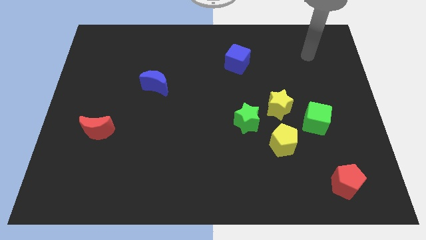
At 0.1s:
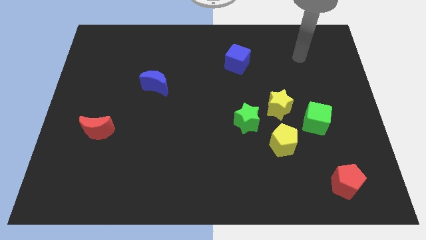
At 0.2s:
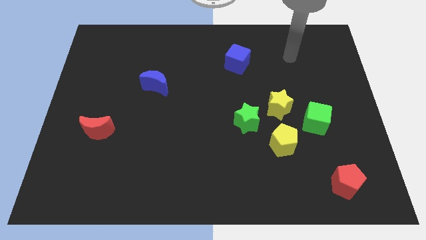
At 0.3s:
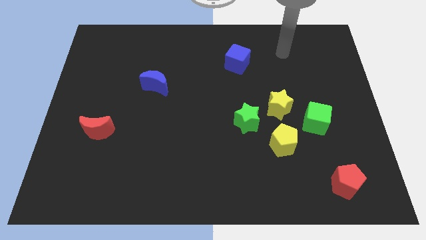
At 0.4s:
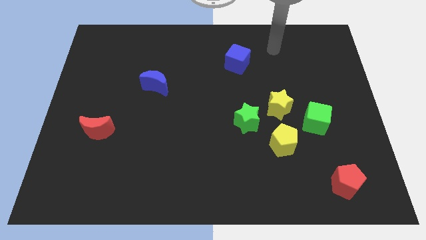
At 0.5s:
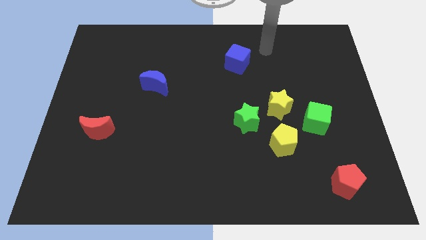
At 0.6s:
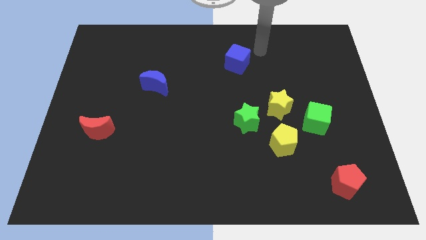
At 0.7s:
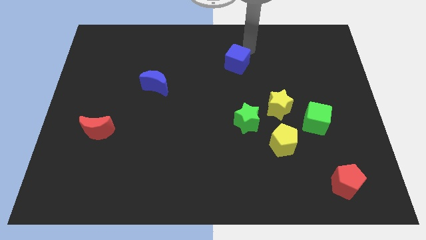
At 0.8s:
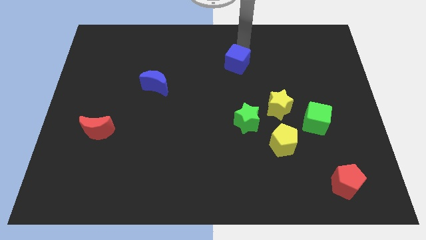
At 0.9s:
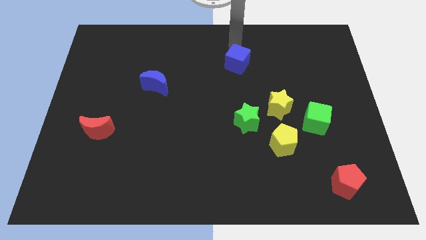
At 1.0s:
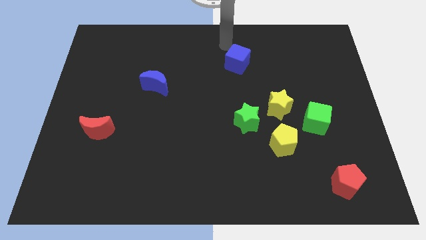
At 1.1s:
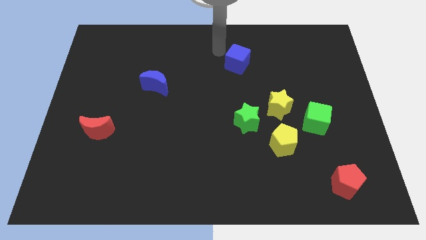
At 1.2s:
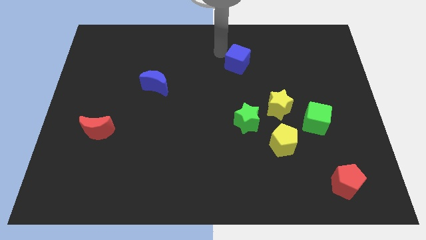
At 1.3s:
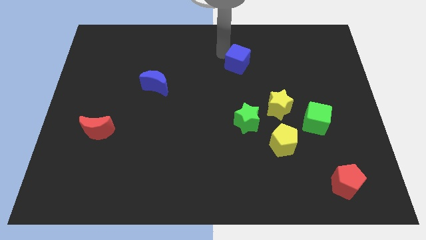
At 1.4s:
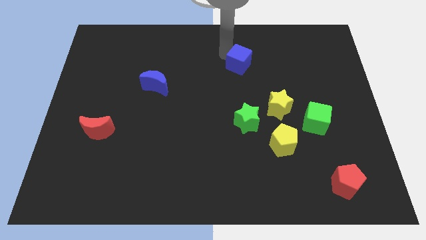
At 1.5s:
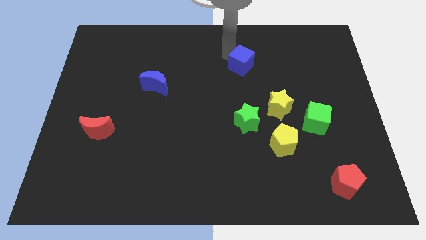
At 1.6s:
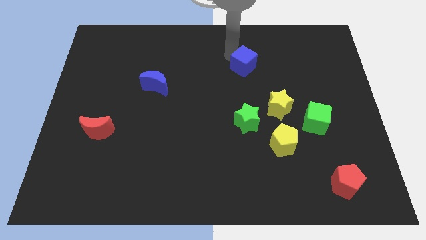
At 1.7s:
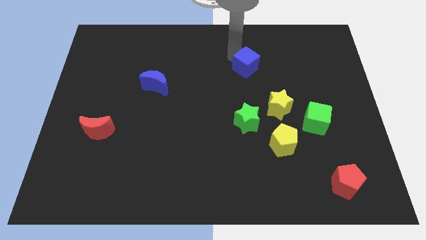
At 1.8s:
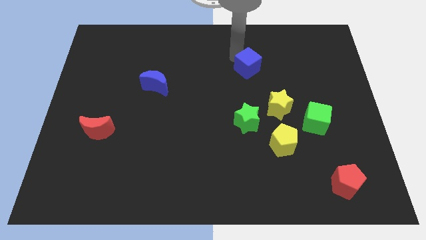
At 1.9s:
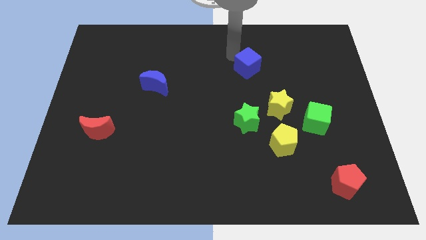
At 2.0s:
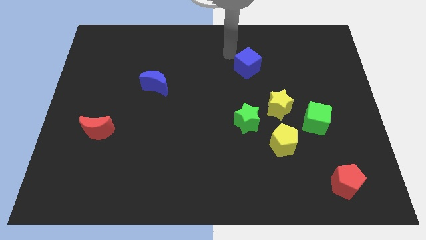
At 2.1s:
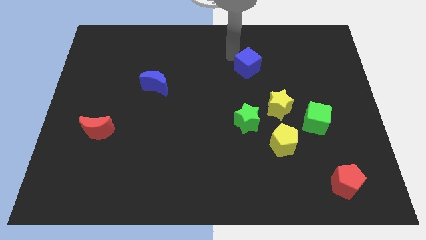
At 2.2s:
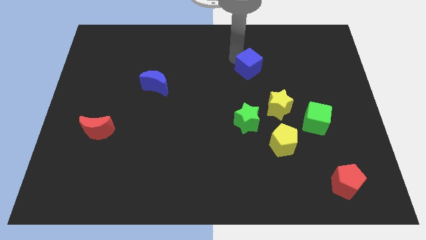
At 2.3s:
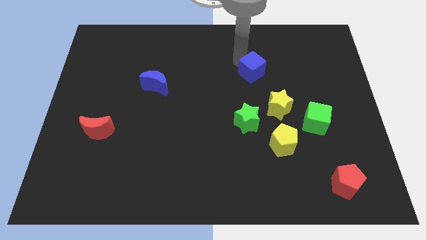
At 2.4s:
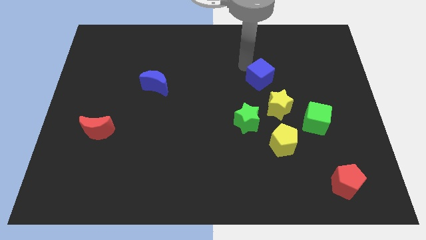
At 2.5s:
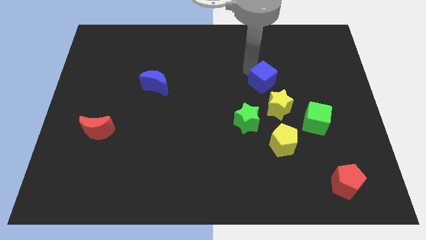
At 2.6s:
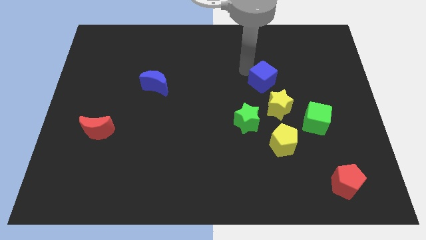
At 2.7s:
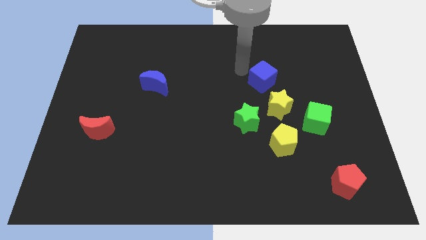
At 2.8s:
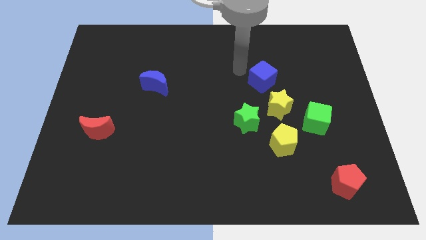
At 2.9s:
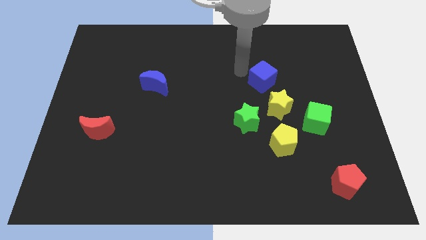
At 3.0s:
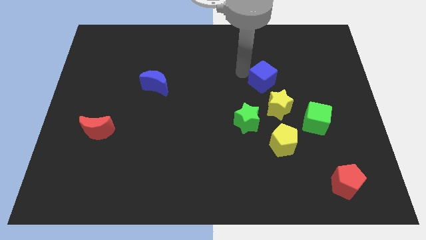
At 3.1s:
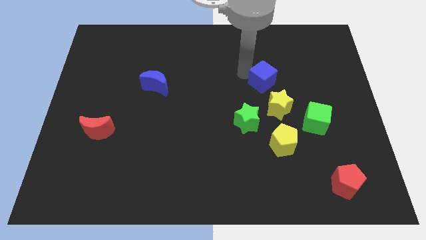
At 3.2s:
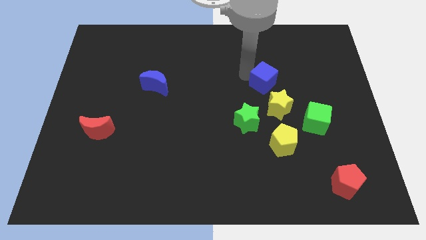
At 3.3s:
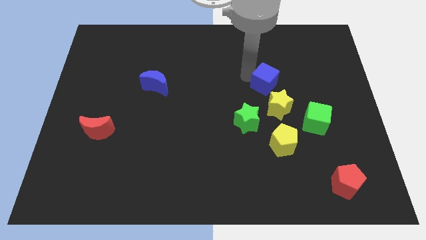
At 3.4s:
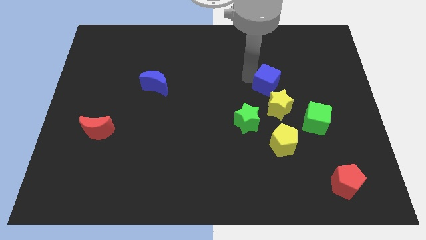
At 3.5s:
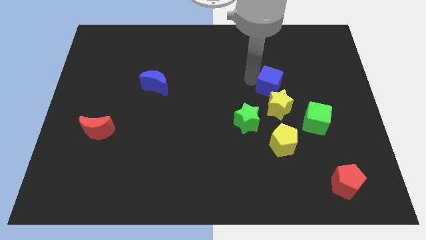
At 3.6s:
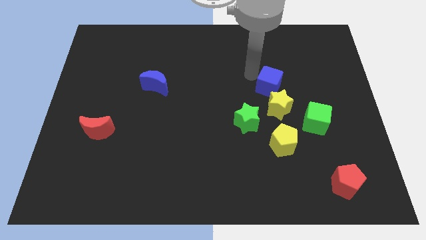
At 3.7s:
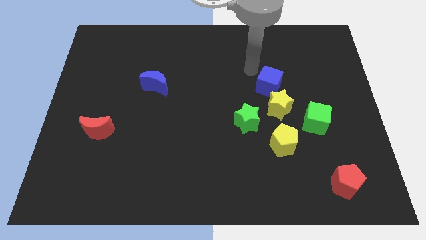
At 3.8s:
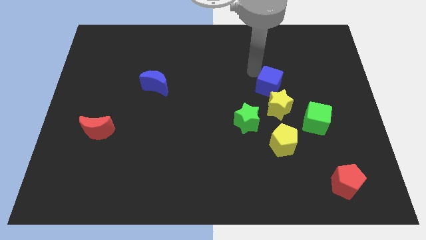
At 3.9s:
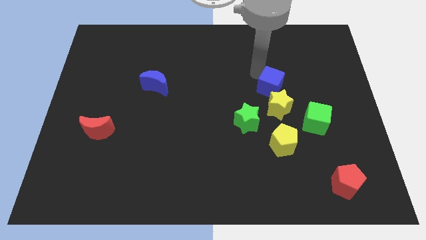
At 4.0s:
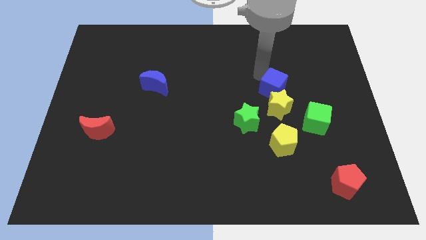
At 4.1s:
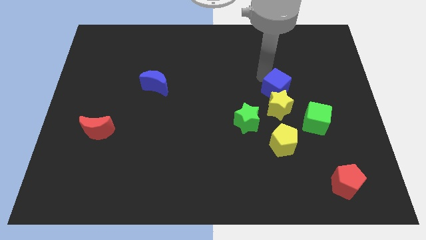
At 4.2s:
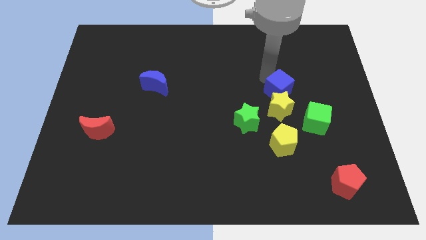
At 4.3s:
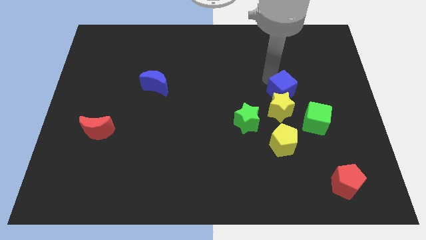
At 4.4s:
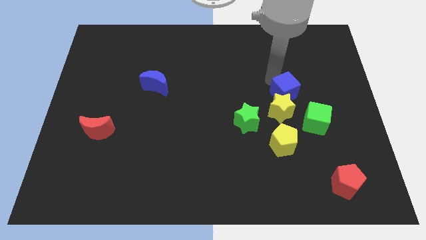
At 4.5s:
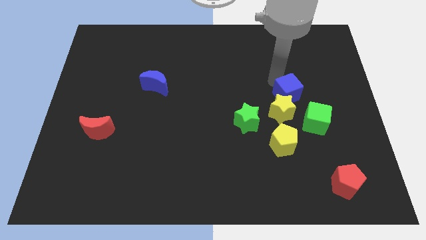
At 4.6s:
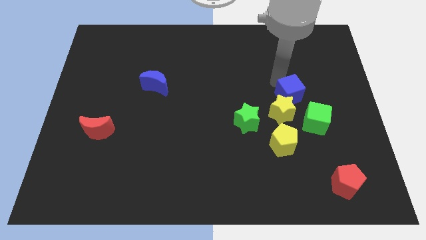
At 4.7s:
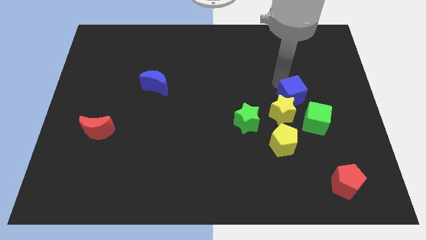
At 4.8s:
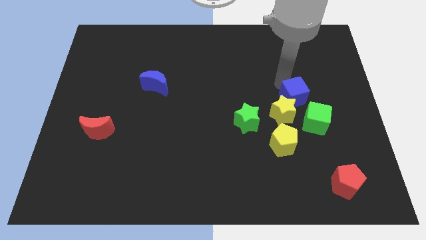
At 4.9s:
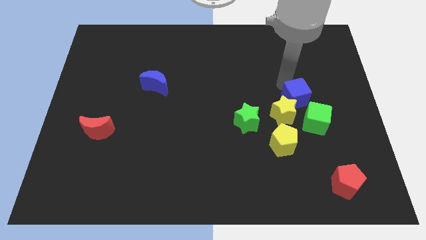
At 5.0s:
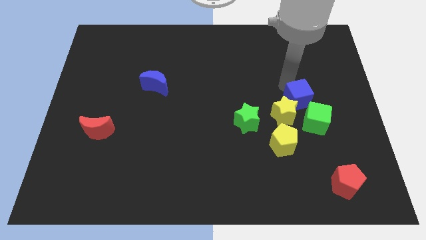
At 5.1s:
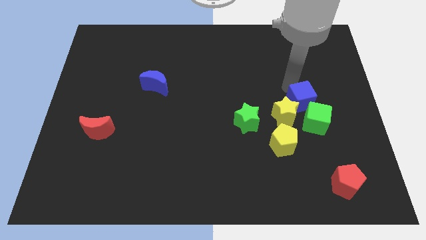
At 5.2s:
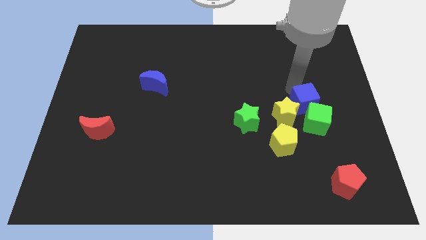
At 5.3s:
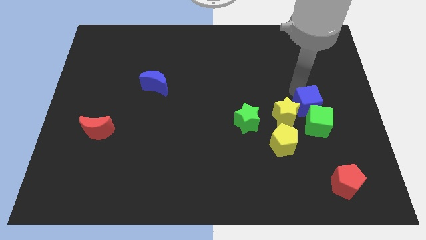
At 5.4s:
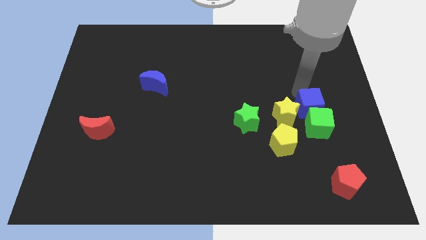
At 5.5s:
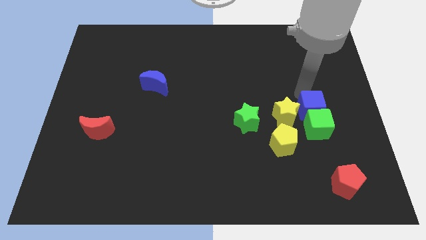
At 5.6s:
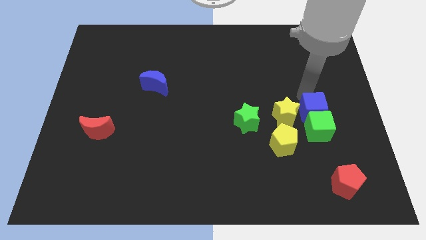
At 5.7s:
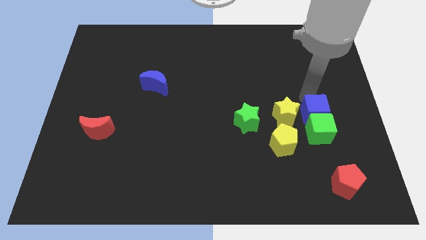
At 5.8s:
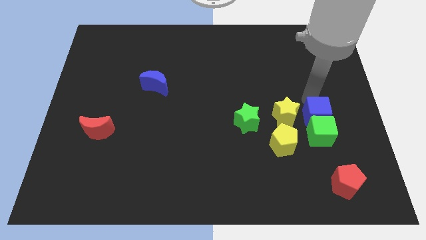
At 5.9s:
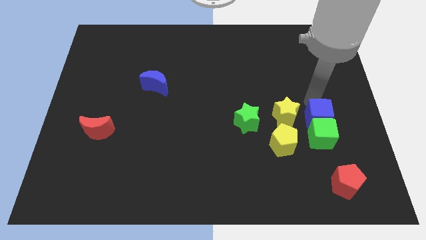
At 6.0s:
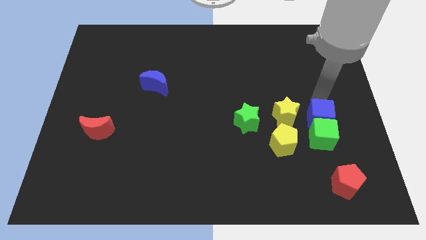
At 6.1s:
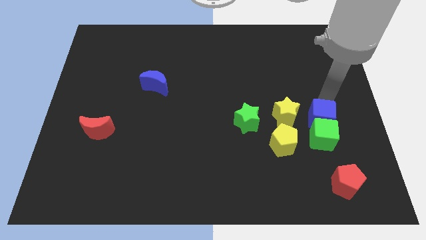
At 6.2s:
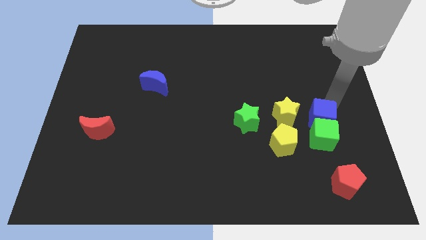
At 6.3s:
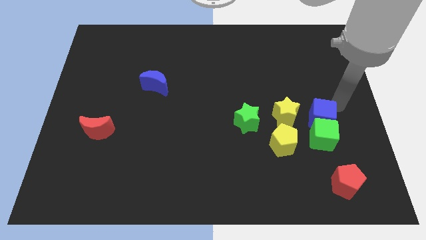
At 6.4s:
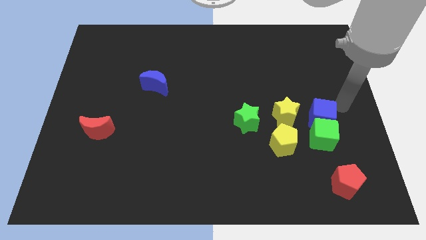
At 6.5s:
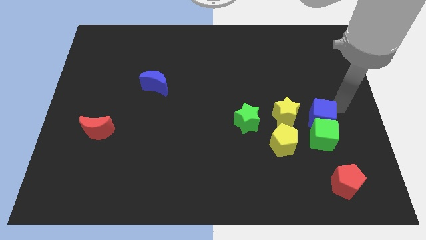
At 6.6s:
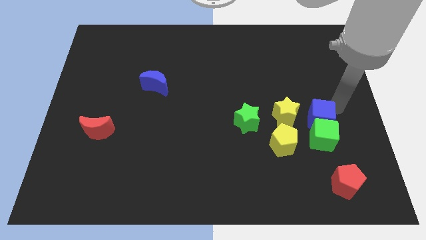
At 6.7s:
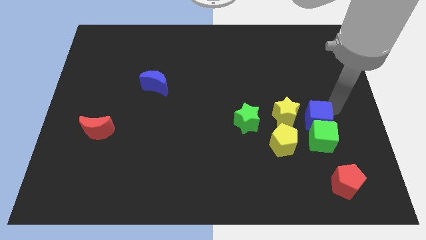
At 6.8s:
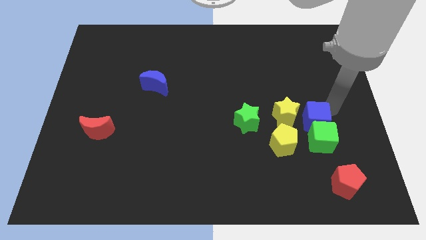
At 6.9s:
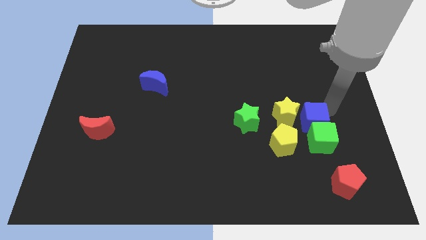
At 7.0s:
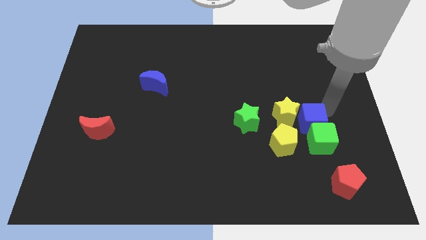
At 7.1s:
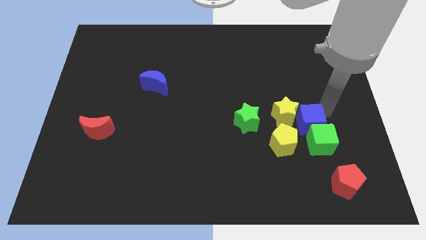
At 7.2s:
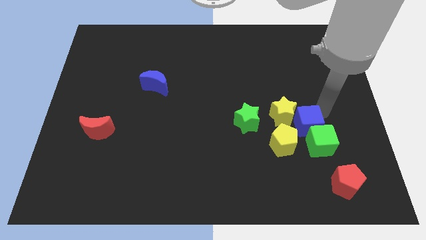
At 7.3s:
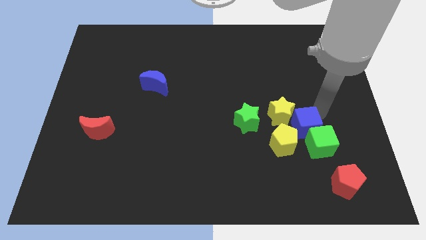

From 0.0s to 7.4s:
slide the blue cube right of the yellow pentagon
